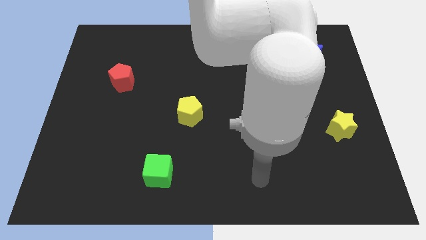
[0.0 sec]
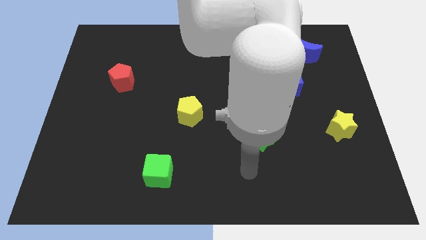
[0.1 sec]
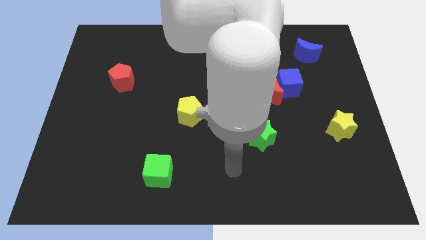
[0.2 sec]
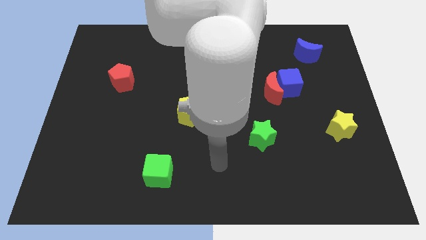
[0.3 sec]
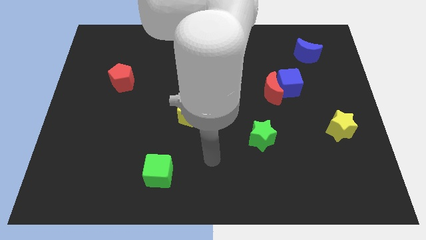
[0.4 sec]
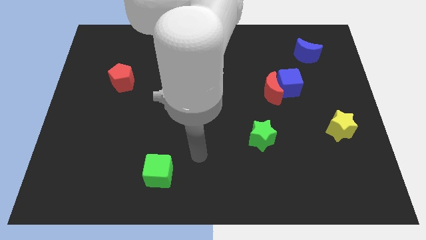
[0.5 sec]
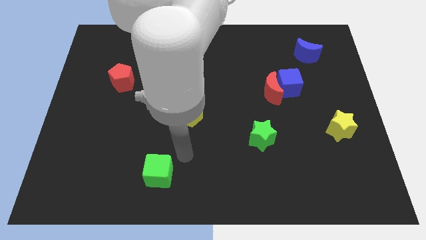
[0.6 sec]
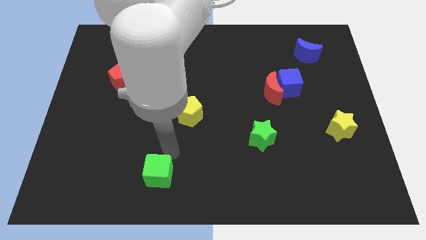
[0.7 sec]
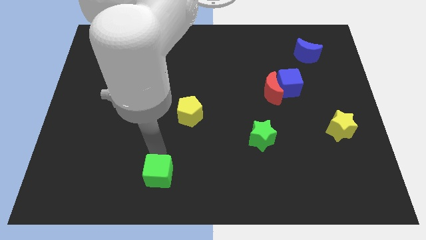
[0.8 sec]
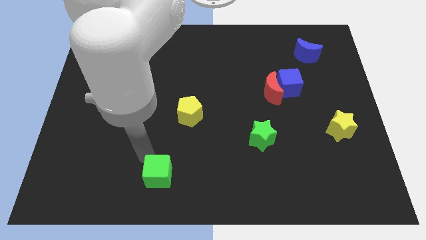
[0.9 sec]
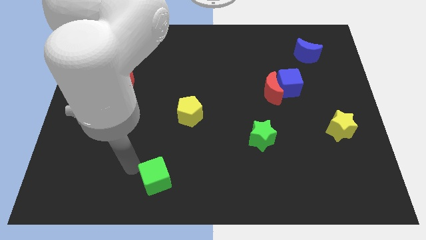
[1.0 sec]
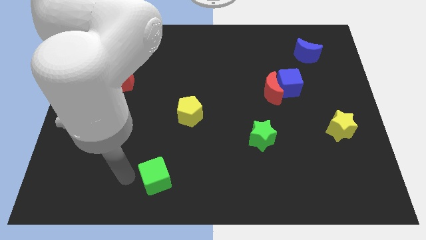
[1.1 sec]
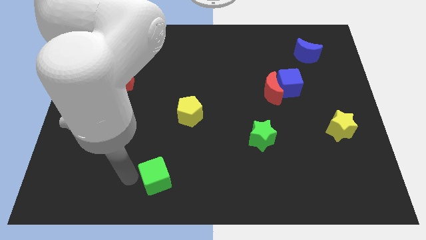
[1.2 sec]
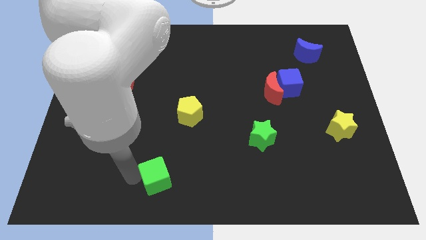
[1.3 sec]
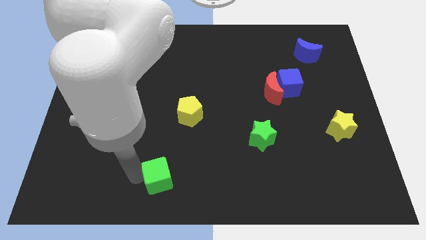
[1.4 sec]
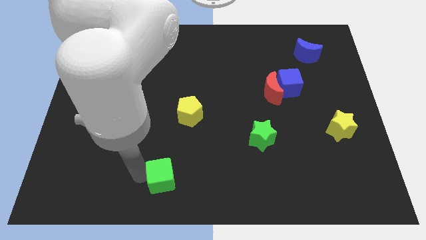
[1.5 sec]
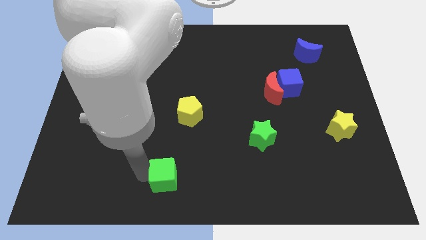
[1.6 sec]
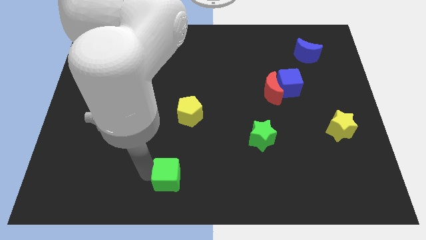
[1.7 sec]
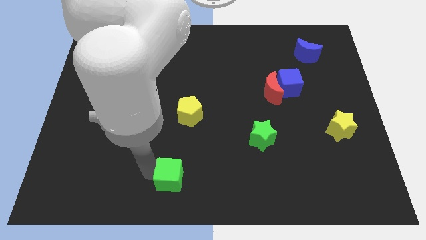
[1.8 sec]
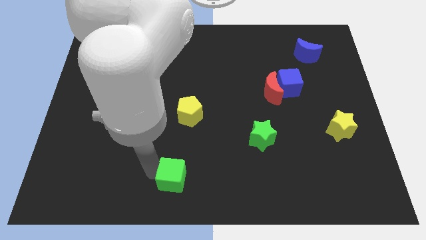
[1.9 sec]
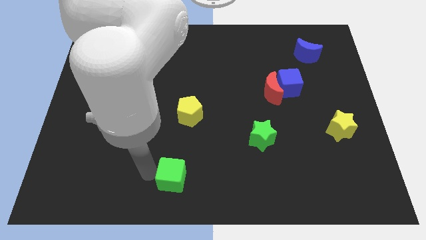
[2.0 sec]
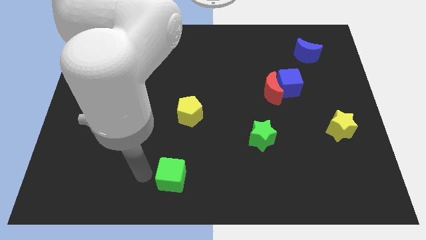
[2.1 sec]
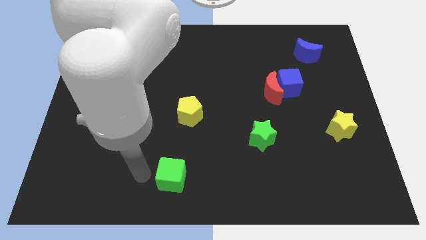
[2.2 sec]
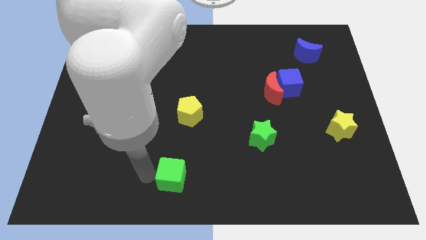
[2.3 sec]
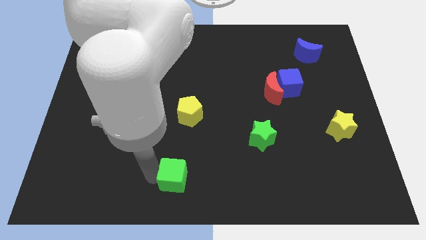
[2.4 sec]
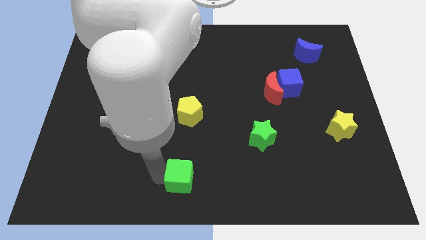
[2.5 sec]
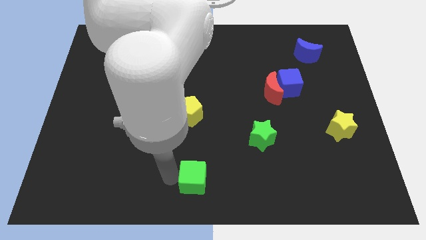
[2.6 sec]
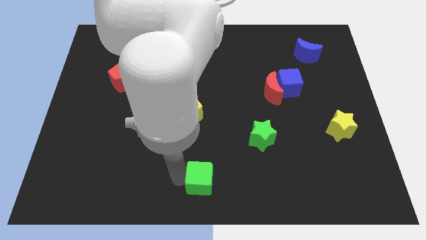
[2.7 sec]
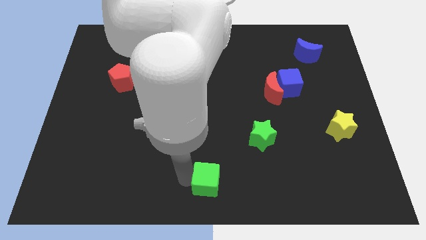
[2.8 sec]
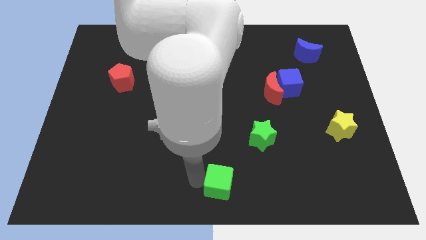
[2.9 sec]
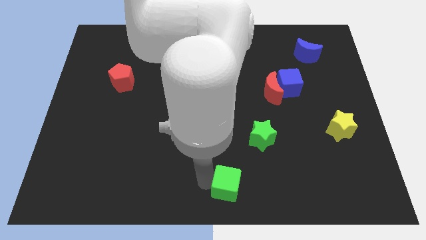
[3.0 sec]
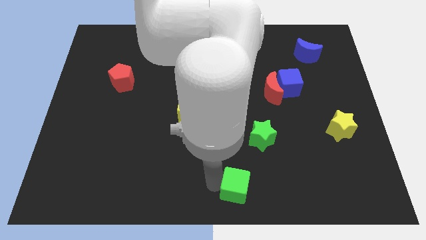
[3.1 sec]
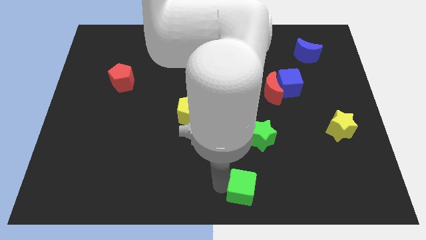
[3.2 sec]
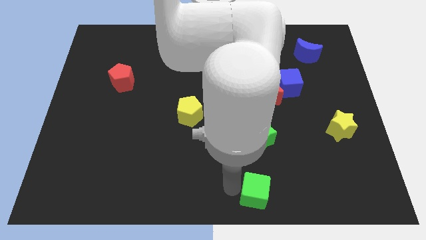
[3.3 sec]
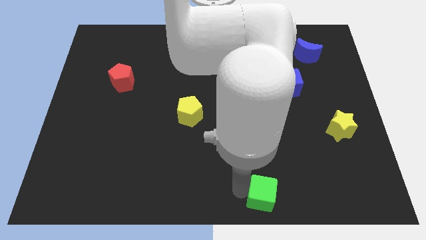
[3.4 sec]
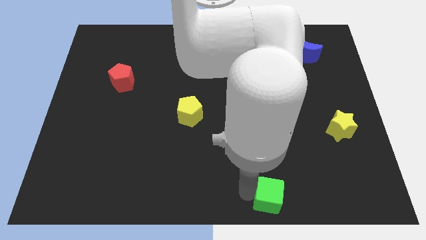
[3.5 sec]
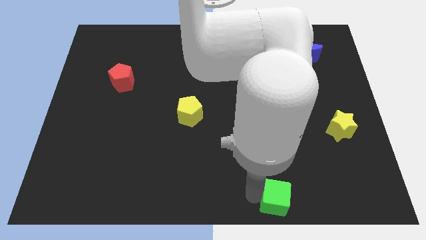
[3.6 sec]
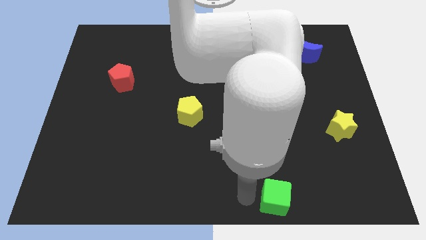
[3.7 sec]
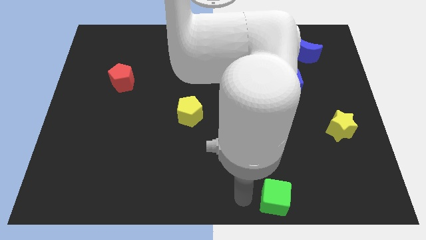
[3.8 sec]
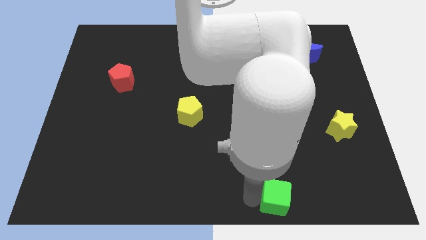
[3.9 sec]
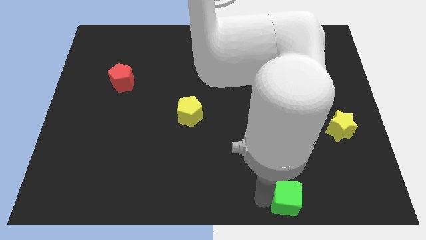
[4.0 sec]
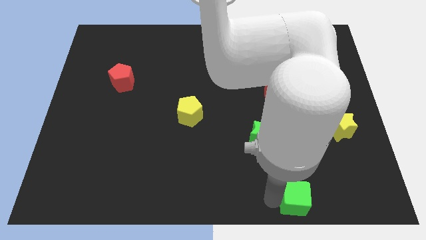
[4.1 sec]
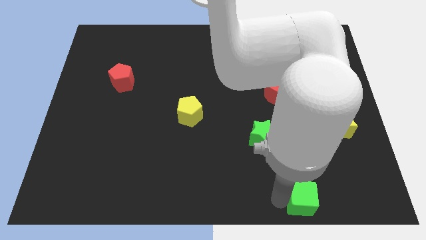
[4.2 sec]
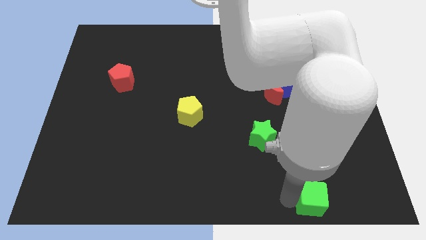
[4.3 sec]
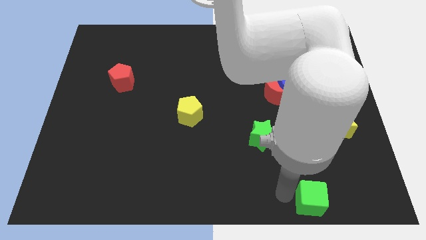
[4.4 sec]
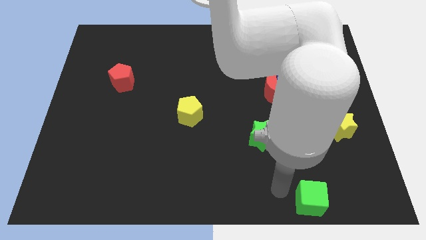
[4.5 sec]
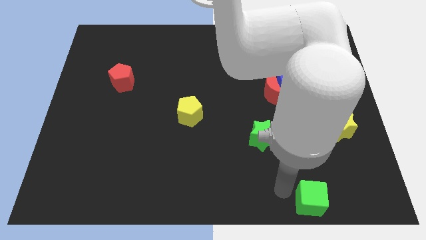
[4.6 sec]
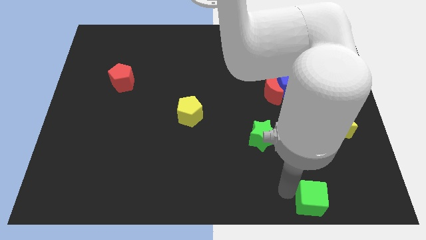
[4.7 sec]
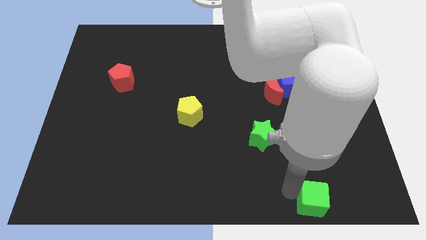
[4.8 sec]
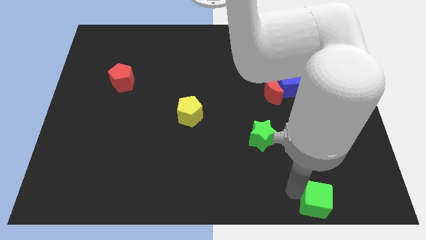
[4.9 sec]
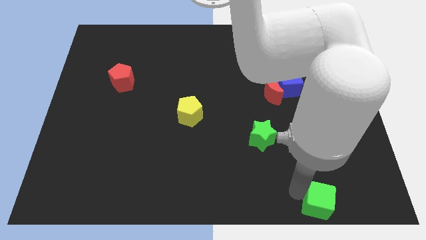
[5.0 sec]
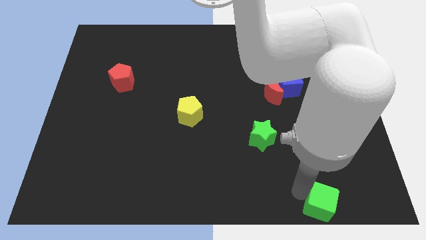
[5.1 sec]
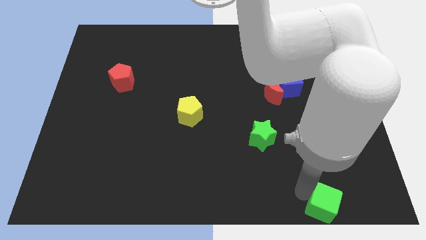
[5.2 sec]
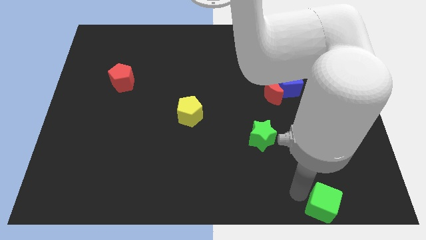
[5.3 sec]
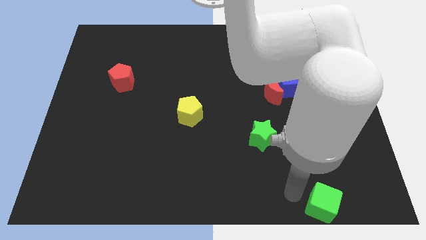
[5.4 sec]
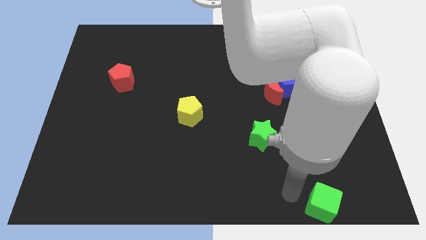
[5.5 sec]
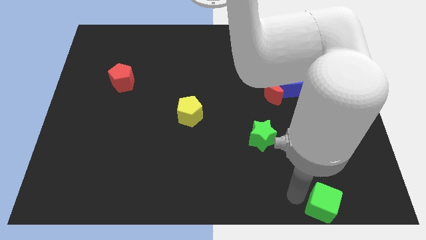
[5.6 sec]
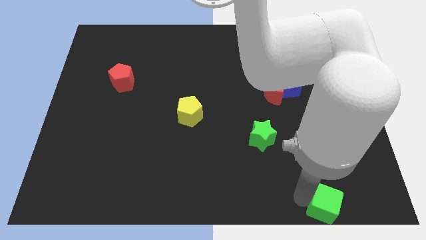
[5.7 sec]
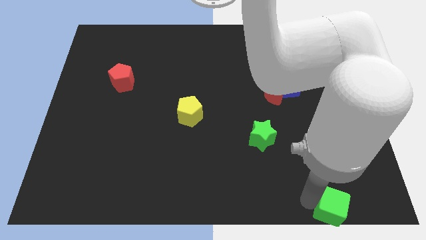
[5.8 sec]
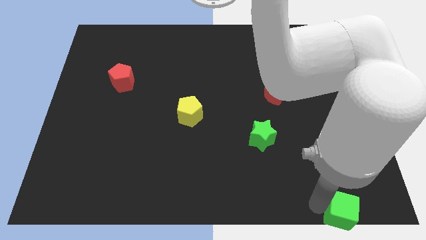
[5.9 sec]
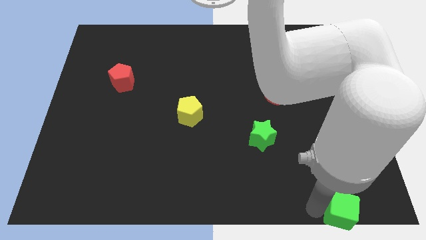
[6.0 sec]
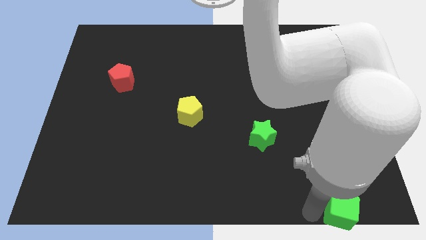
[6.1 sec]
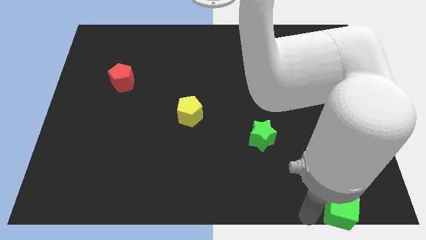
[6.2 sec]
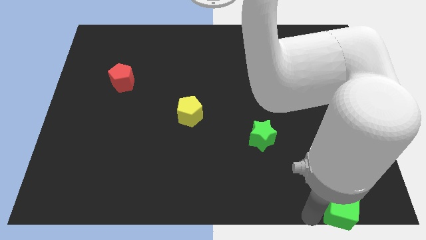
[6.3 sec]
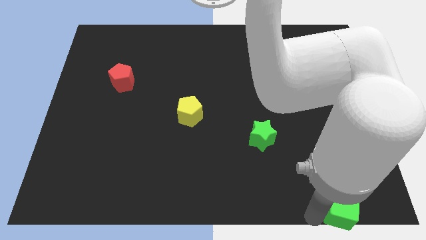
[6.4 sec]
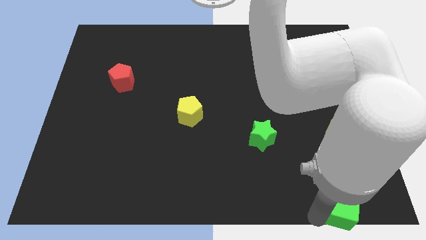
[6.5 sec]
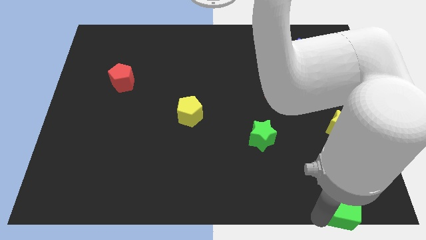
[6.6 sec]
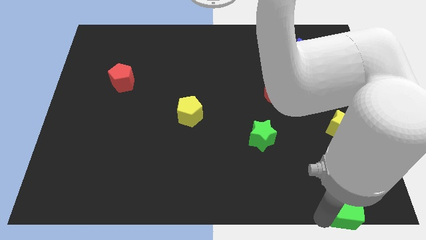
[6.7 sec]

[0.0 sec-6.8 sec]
put the green cube to the bottom right corner
